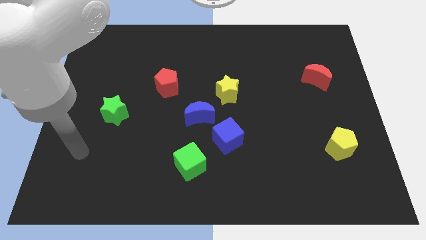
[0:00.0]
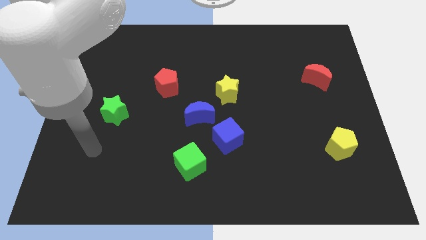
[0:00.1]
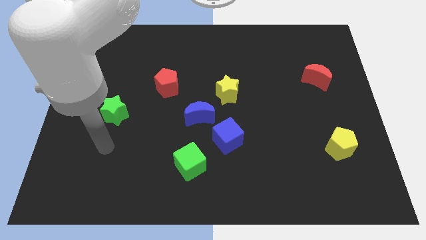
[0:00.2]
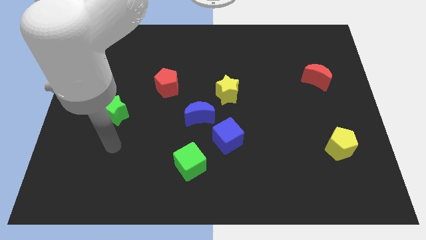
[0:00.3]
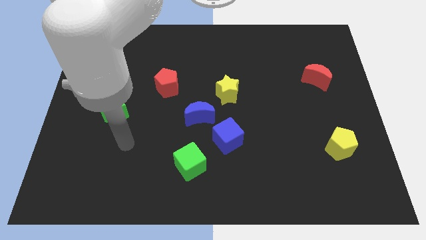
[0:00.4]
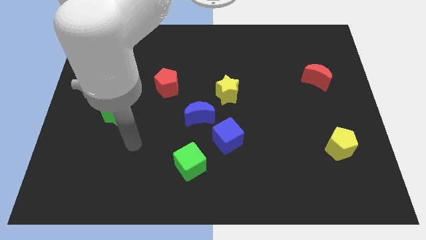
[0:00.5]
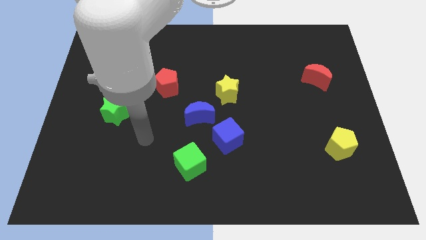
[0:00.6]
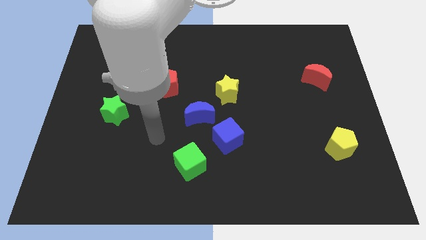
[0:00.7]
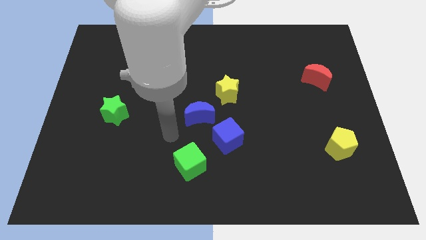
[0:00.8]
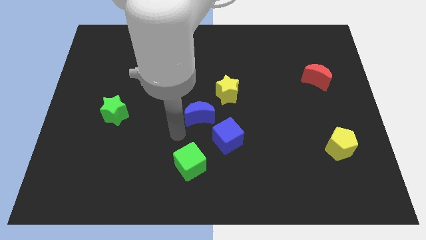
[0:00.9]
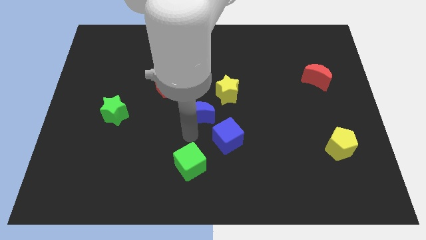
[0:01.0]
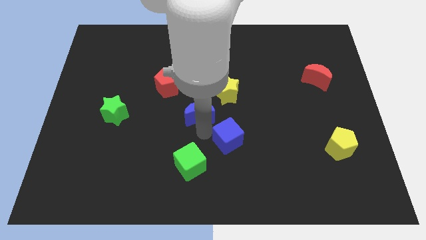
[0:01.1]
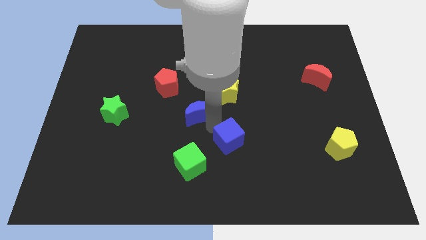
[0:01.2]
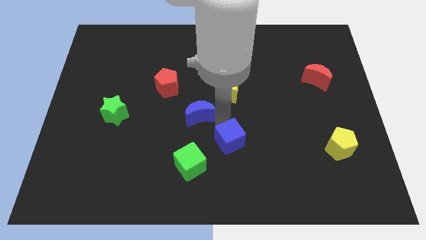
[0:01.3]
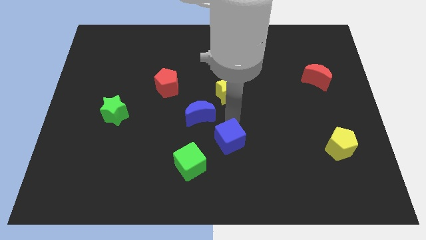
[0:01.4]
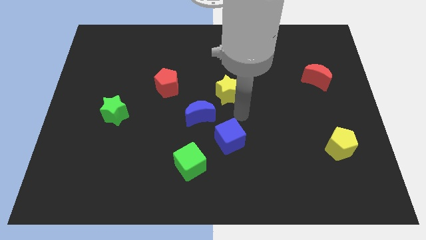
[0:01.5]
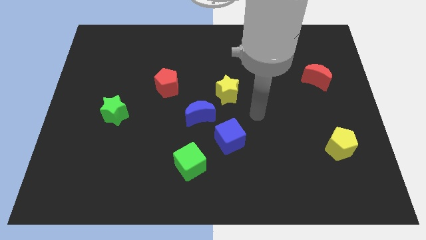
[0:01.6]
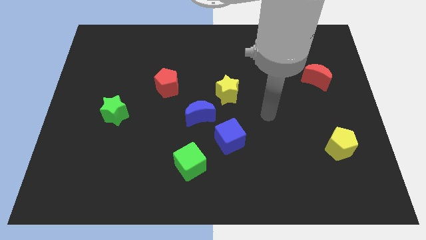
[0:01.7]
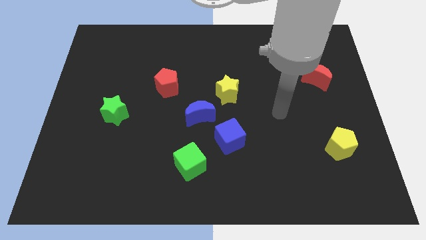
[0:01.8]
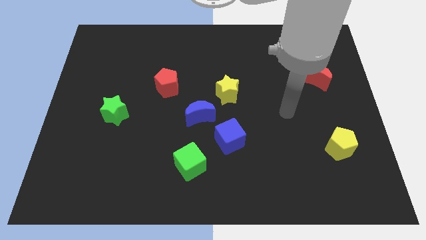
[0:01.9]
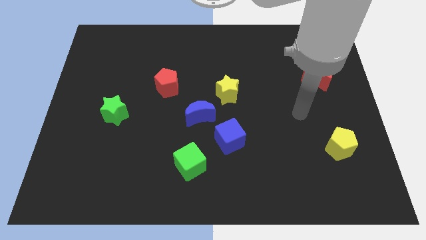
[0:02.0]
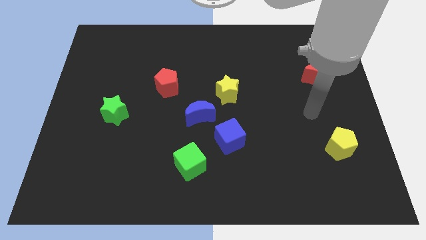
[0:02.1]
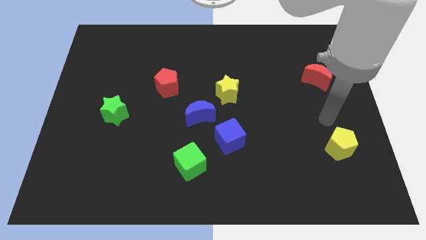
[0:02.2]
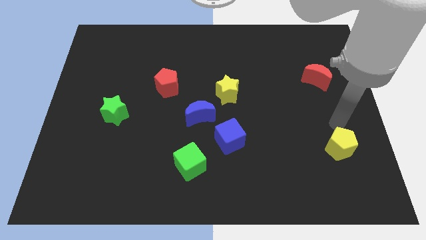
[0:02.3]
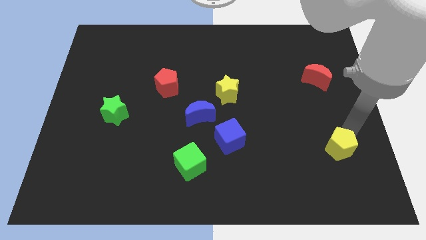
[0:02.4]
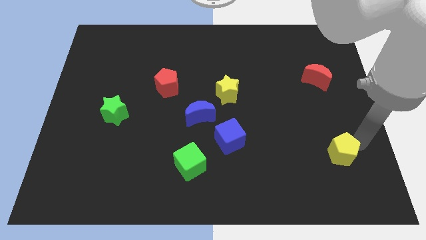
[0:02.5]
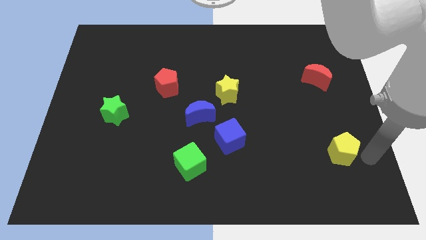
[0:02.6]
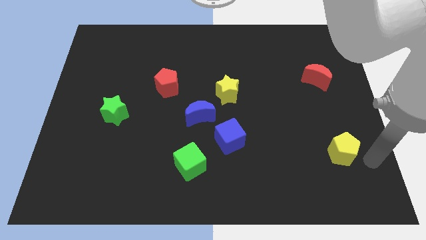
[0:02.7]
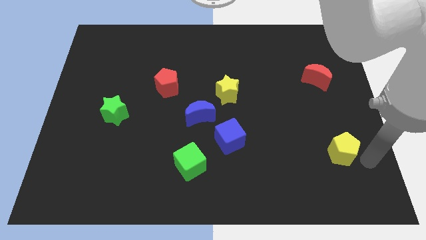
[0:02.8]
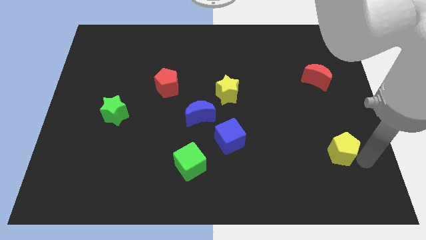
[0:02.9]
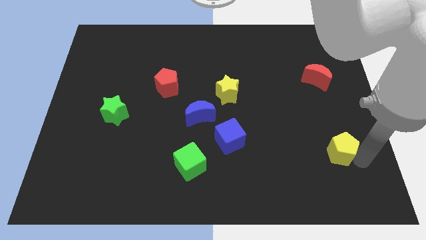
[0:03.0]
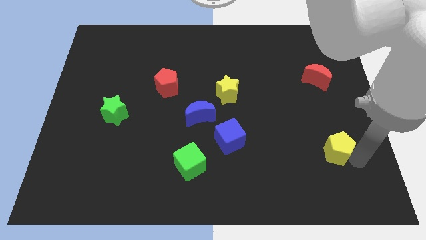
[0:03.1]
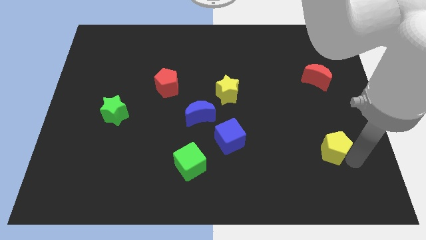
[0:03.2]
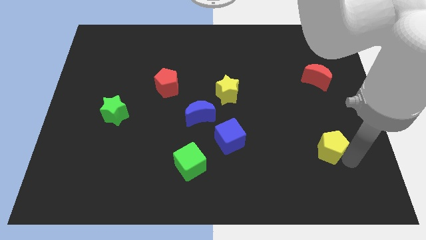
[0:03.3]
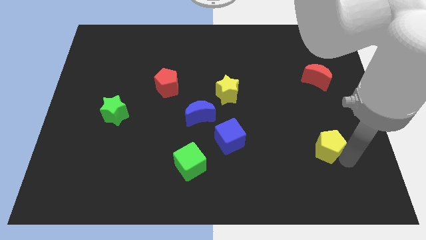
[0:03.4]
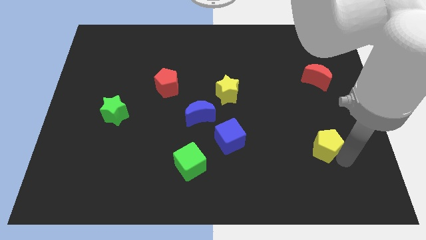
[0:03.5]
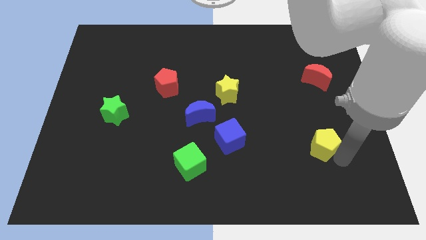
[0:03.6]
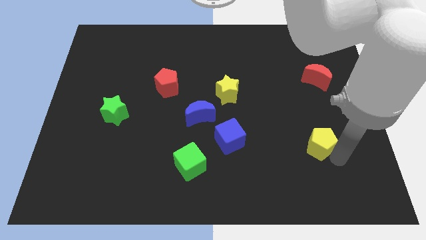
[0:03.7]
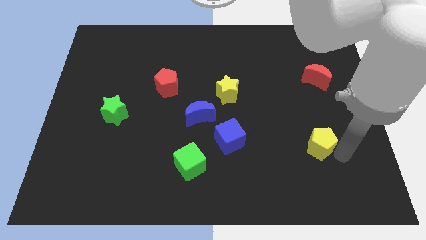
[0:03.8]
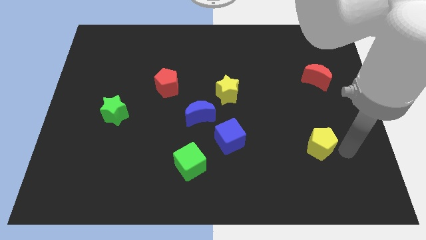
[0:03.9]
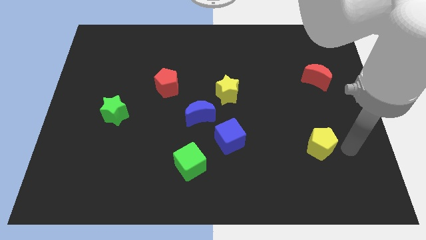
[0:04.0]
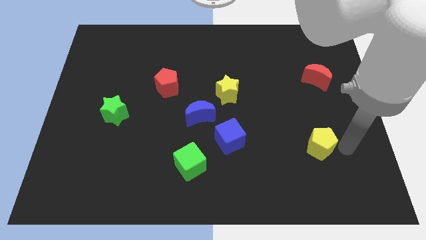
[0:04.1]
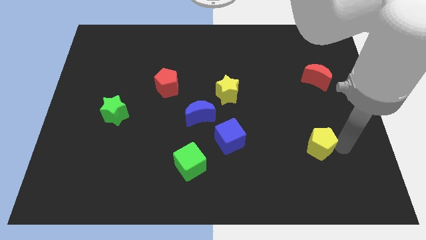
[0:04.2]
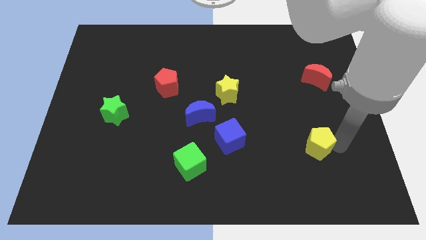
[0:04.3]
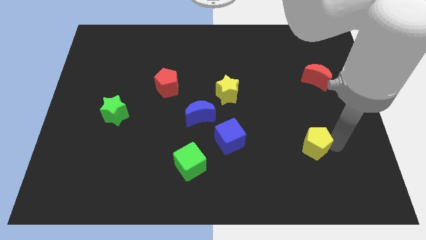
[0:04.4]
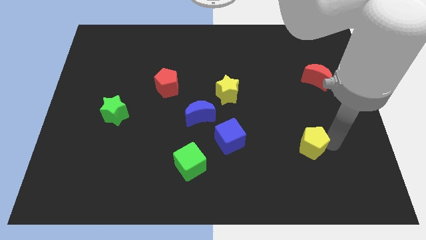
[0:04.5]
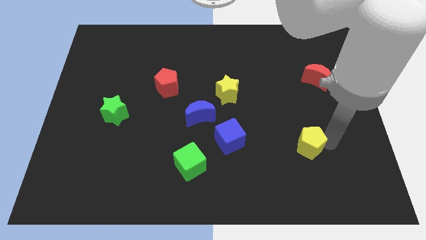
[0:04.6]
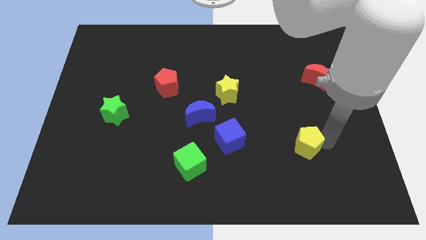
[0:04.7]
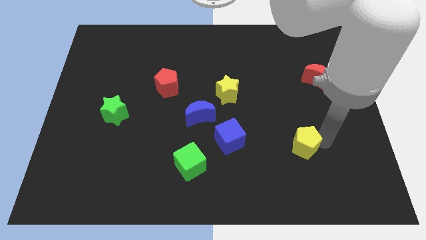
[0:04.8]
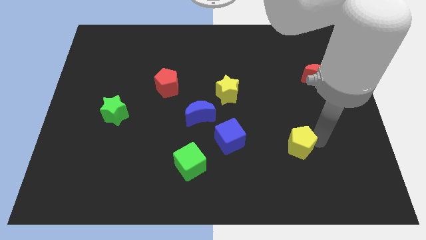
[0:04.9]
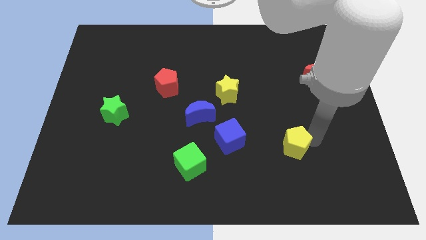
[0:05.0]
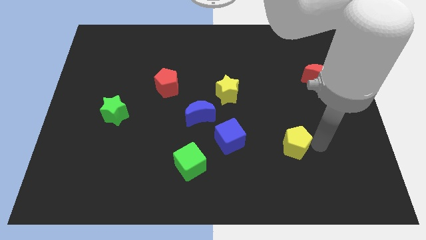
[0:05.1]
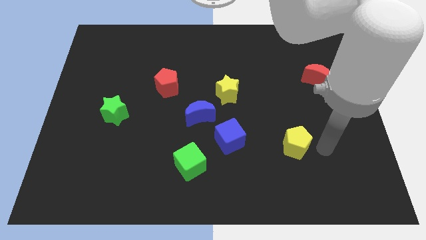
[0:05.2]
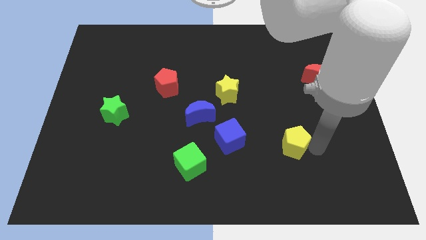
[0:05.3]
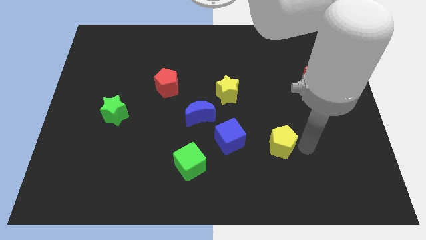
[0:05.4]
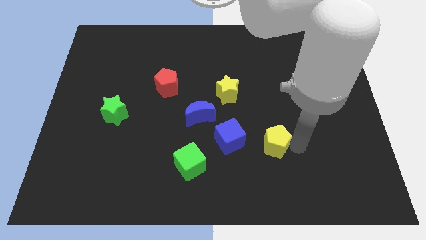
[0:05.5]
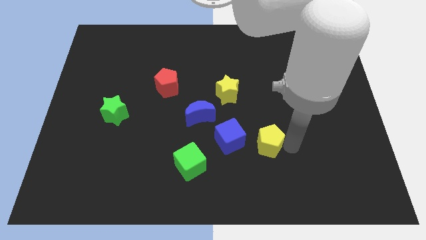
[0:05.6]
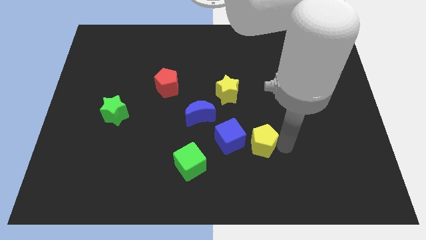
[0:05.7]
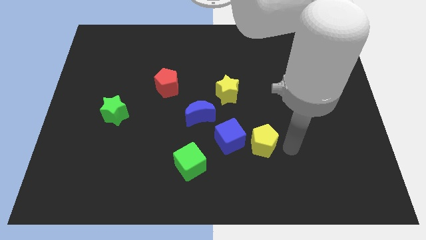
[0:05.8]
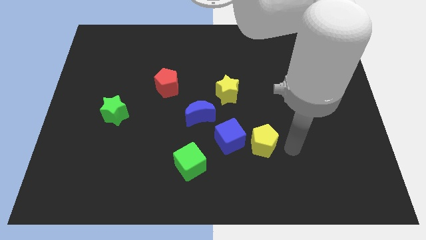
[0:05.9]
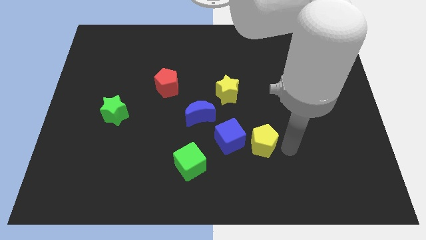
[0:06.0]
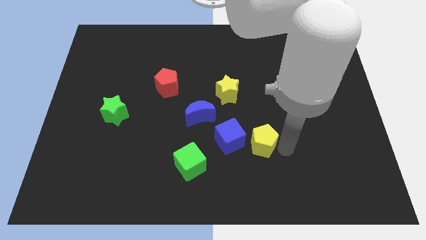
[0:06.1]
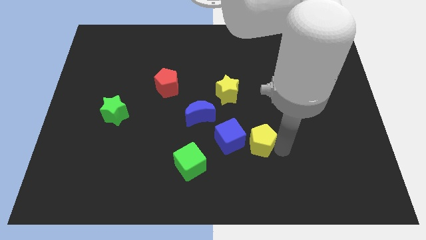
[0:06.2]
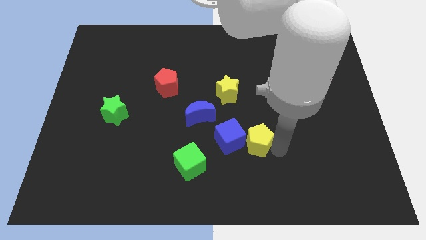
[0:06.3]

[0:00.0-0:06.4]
put the yellow pentagon close to the blue cube

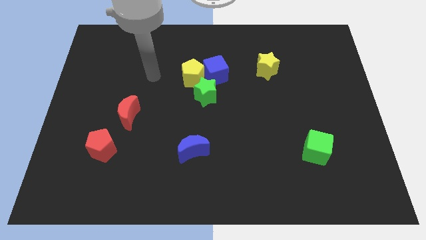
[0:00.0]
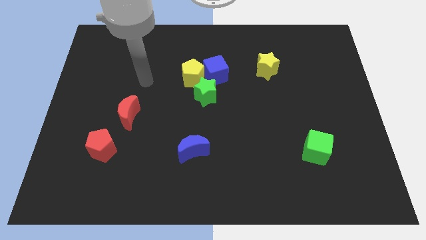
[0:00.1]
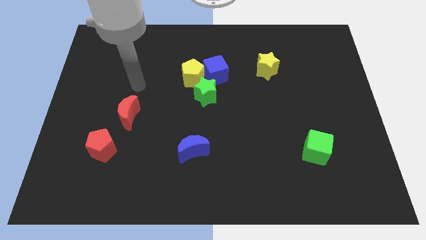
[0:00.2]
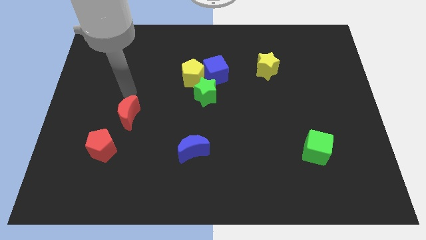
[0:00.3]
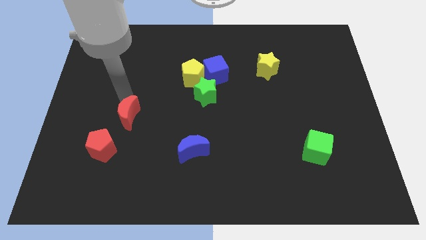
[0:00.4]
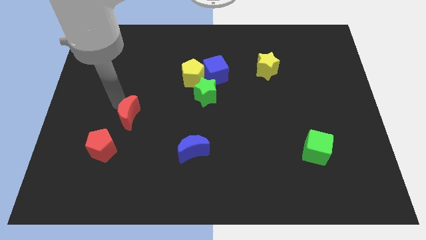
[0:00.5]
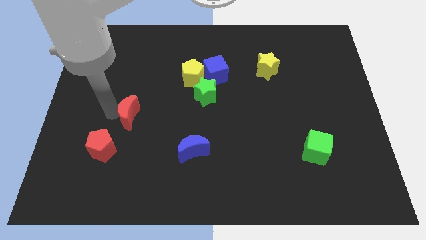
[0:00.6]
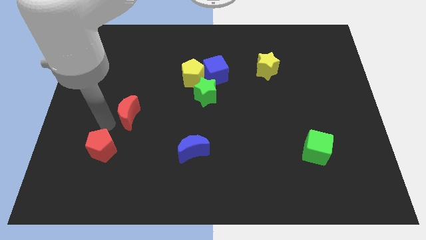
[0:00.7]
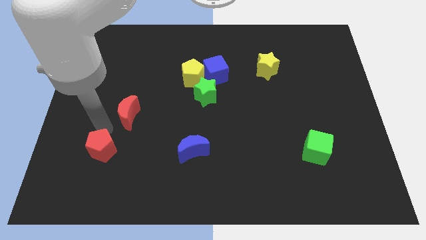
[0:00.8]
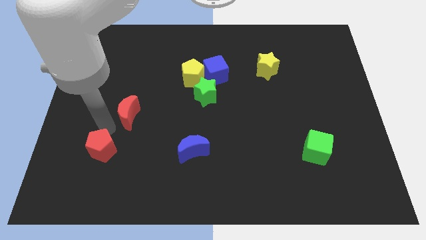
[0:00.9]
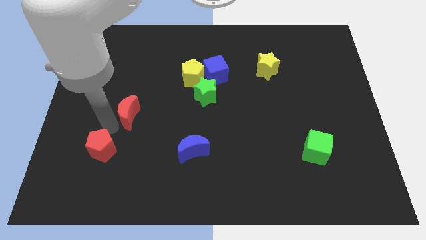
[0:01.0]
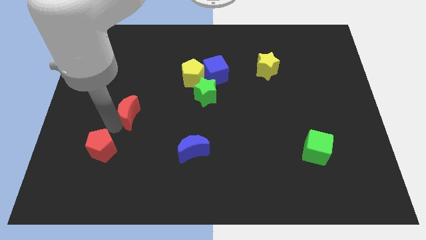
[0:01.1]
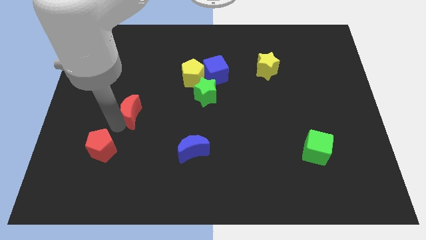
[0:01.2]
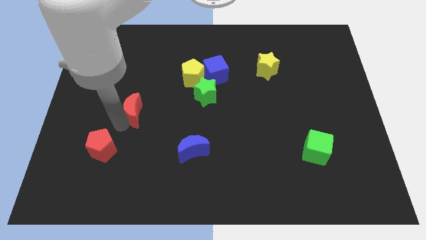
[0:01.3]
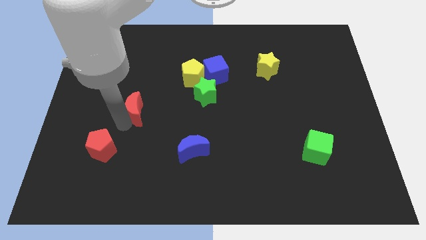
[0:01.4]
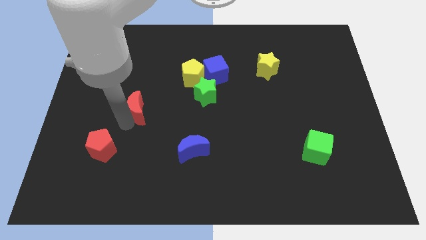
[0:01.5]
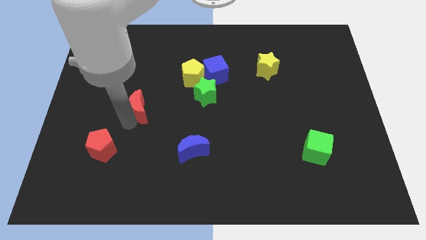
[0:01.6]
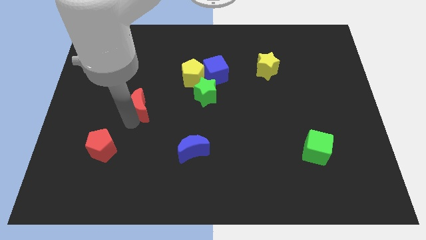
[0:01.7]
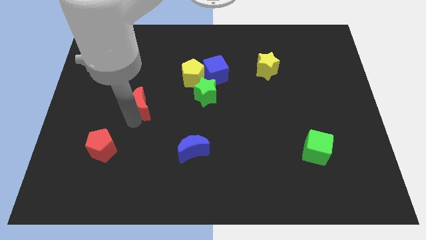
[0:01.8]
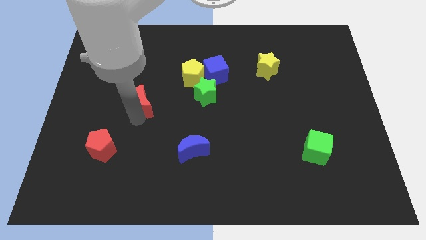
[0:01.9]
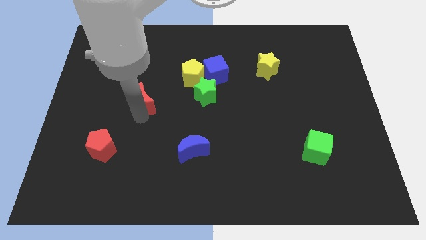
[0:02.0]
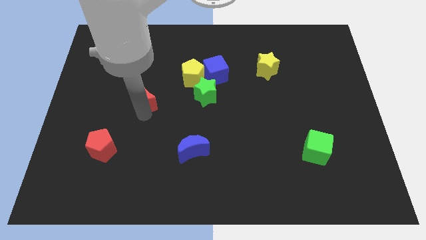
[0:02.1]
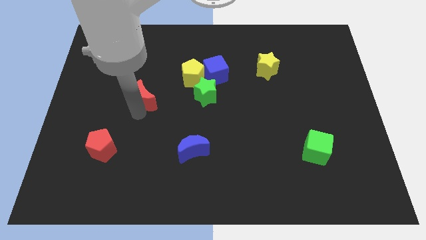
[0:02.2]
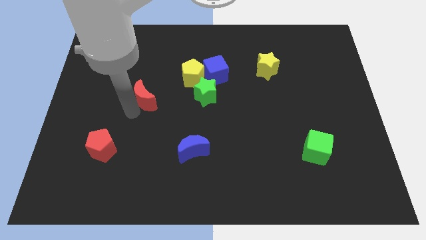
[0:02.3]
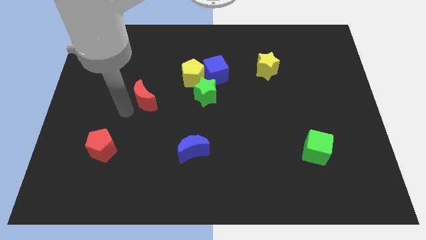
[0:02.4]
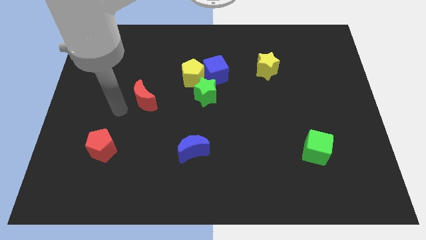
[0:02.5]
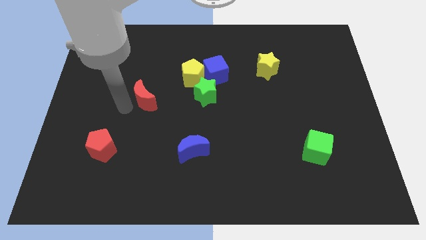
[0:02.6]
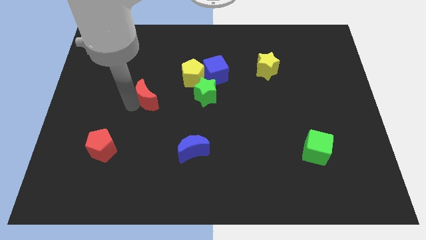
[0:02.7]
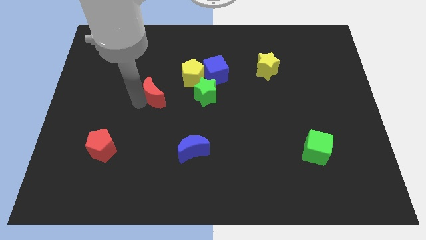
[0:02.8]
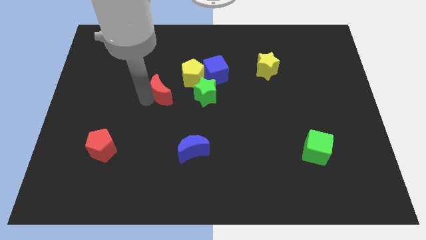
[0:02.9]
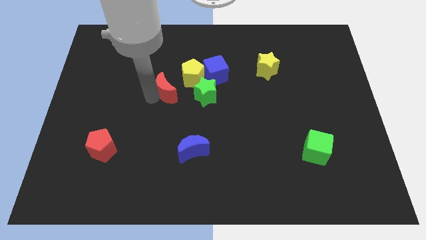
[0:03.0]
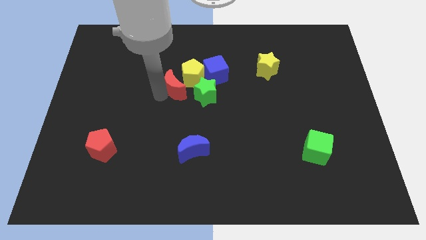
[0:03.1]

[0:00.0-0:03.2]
push the red moon to the yellow pentagon
